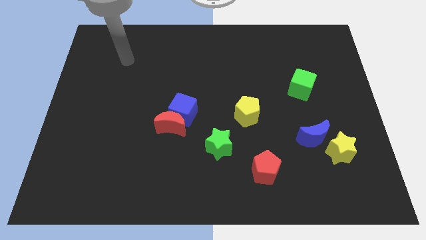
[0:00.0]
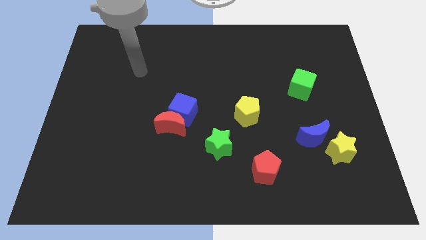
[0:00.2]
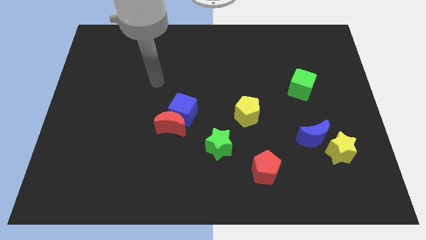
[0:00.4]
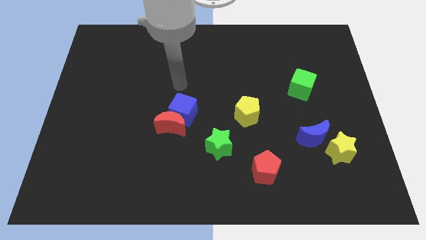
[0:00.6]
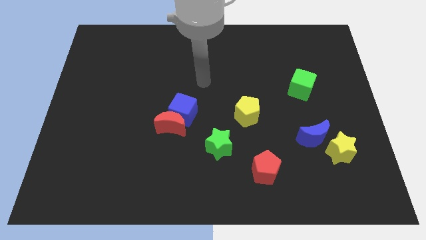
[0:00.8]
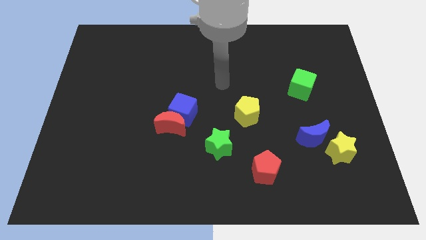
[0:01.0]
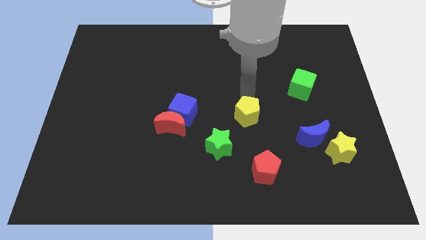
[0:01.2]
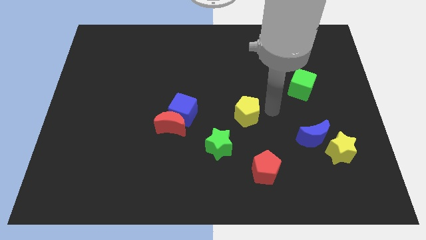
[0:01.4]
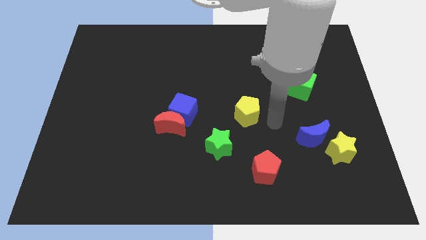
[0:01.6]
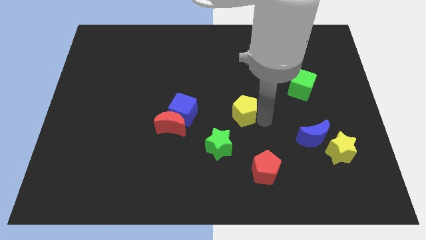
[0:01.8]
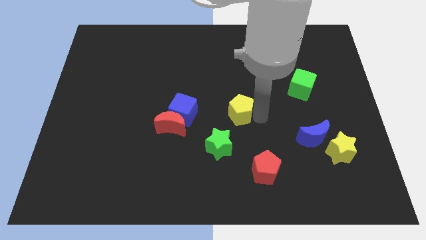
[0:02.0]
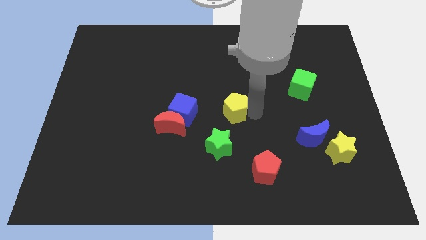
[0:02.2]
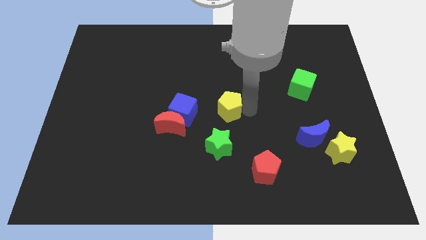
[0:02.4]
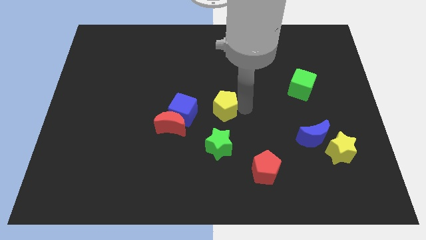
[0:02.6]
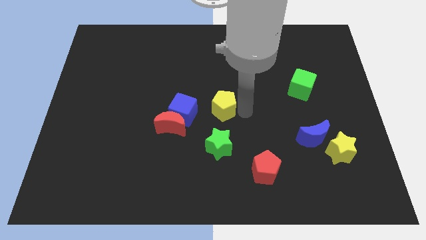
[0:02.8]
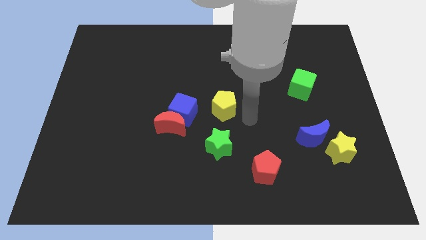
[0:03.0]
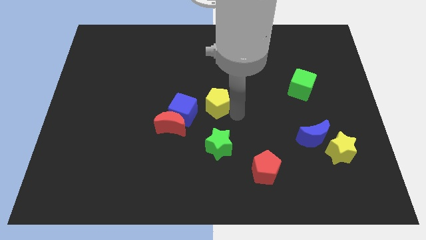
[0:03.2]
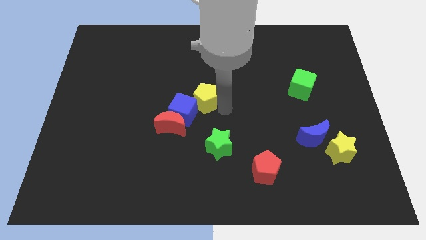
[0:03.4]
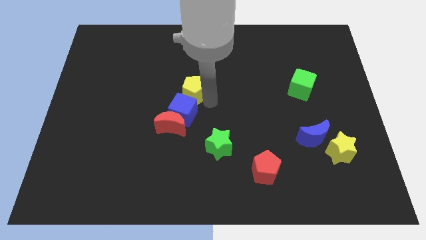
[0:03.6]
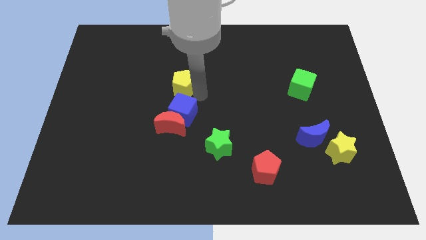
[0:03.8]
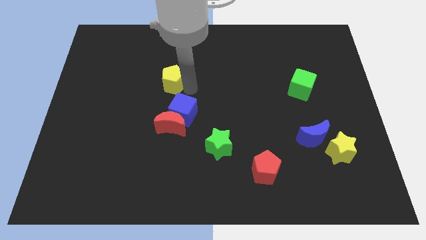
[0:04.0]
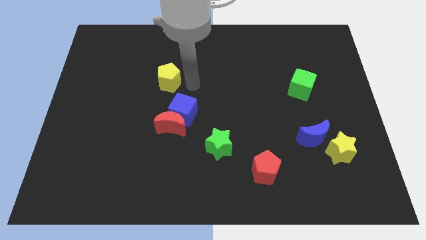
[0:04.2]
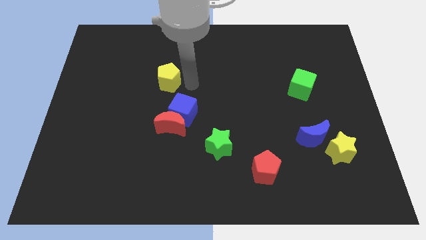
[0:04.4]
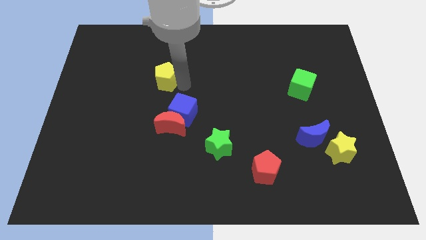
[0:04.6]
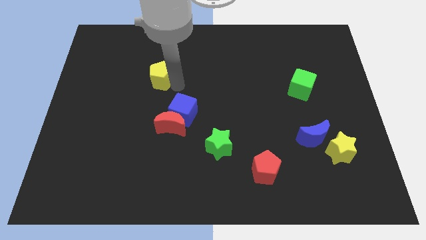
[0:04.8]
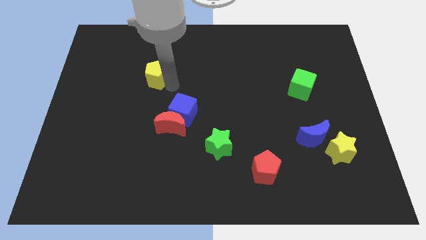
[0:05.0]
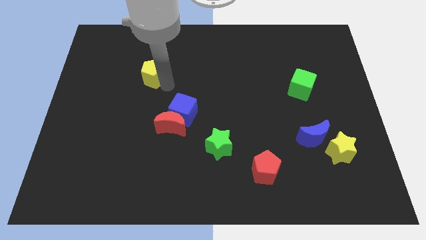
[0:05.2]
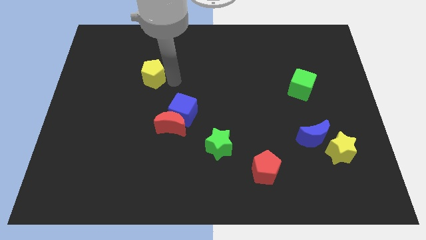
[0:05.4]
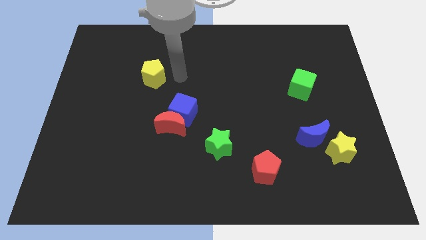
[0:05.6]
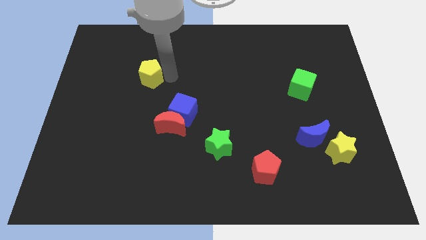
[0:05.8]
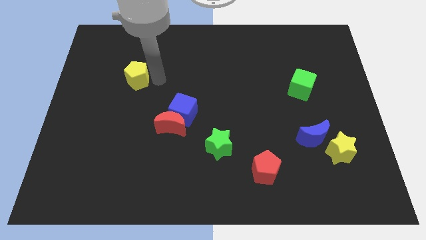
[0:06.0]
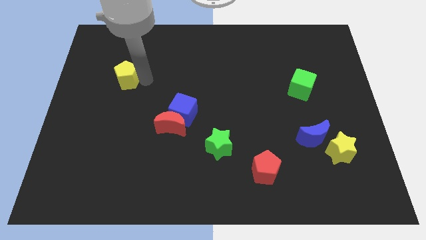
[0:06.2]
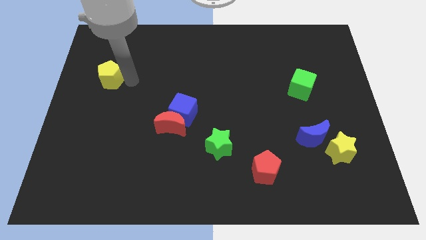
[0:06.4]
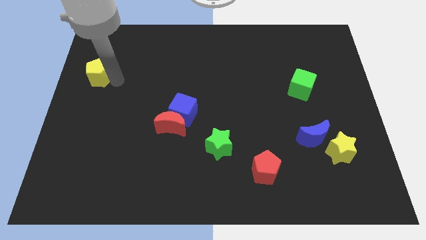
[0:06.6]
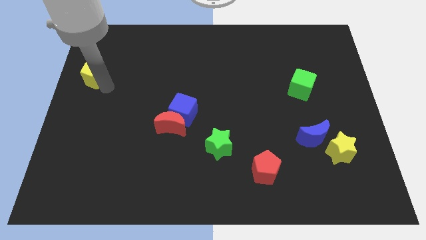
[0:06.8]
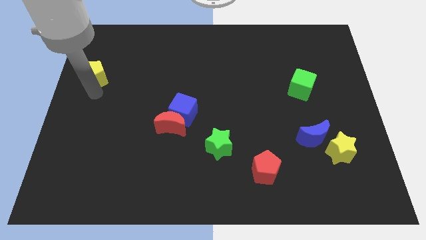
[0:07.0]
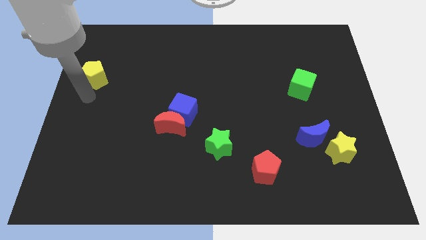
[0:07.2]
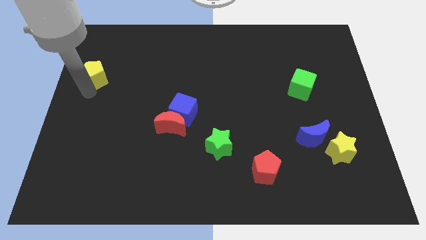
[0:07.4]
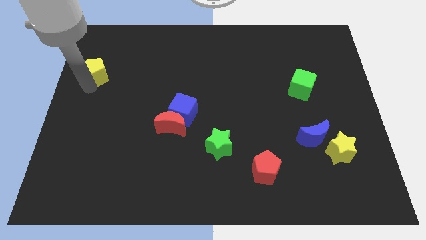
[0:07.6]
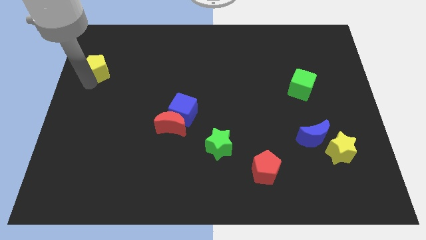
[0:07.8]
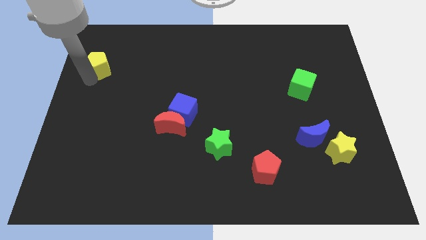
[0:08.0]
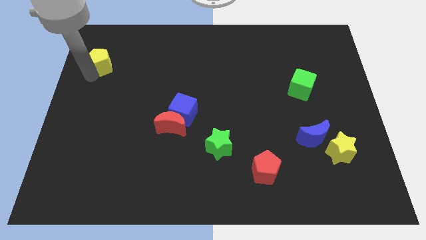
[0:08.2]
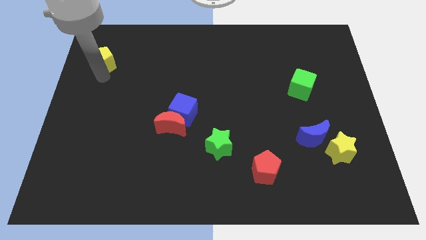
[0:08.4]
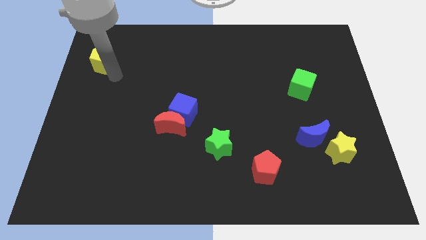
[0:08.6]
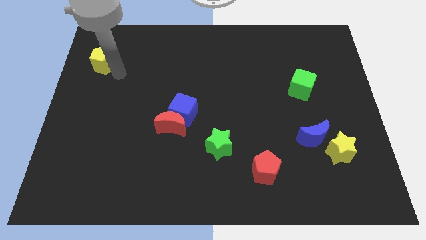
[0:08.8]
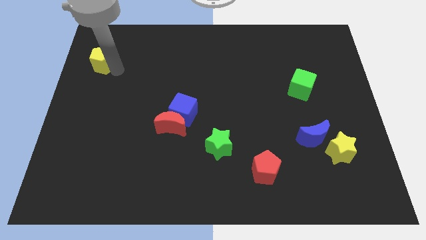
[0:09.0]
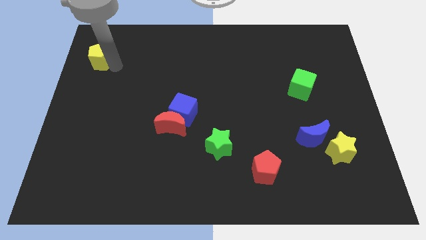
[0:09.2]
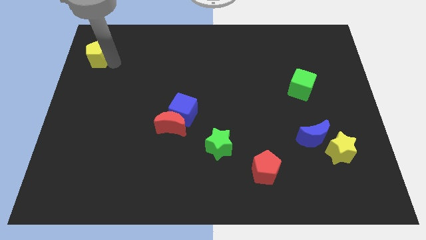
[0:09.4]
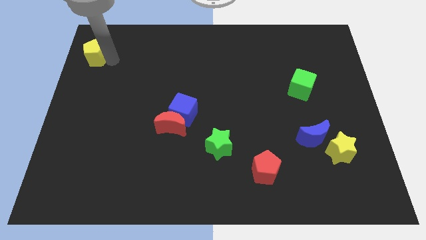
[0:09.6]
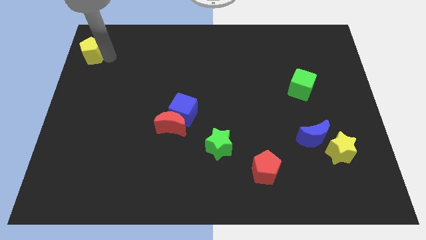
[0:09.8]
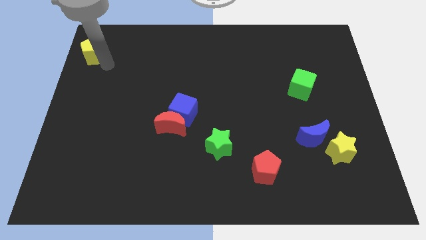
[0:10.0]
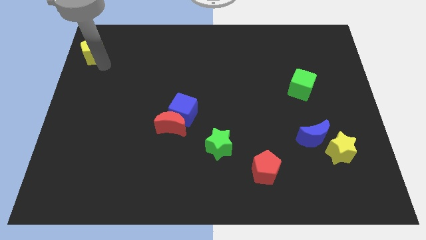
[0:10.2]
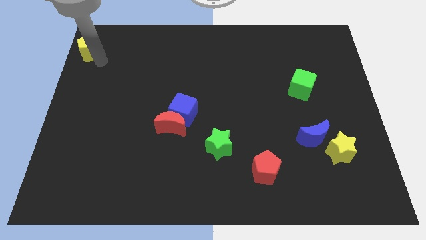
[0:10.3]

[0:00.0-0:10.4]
push the yellow pentagon to the upper left corner

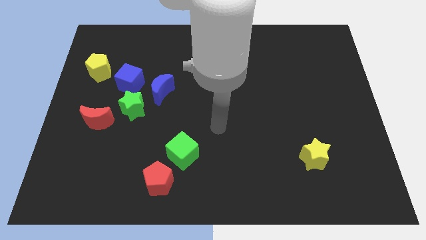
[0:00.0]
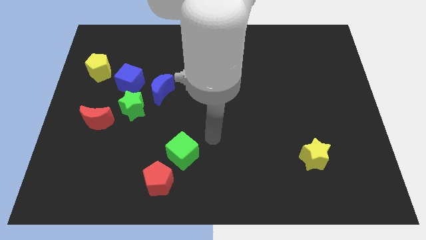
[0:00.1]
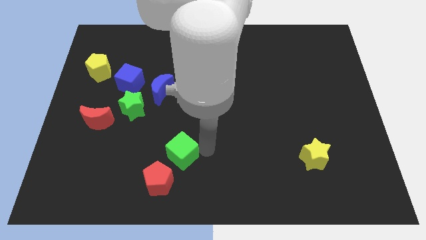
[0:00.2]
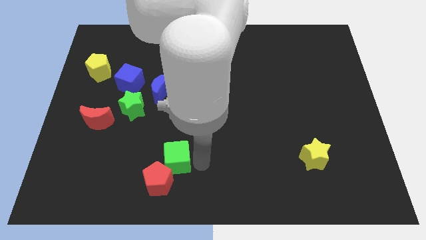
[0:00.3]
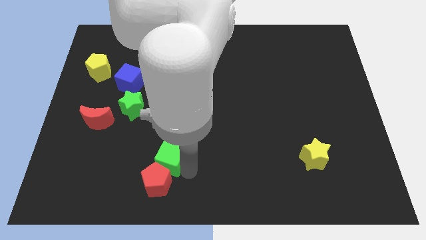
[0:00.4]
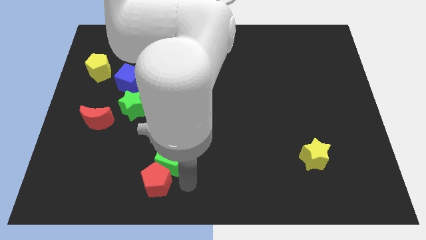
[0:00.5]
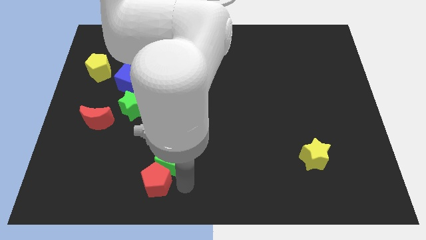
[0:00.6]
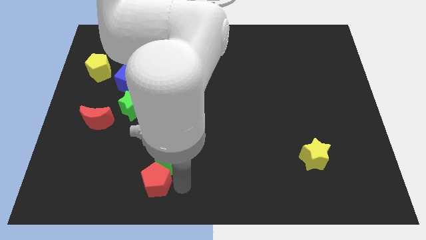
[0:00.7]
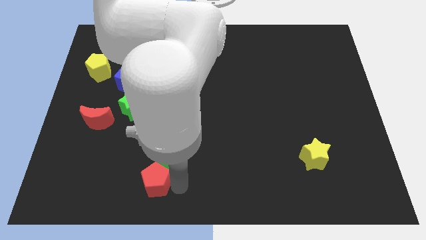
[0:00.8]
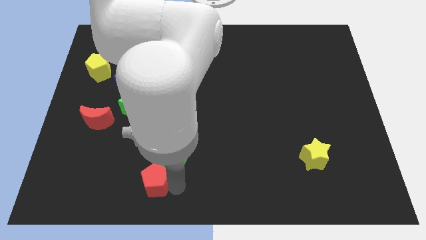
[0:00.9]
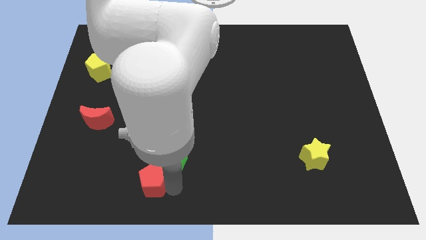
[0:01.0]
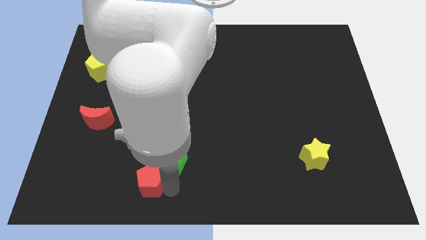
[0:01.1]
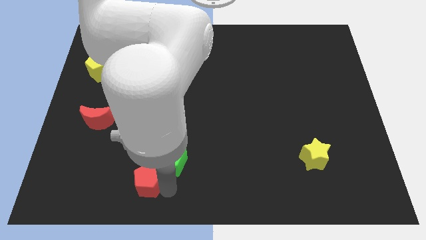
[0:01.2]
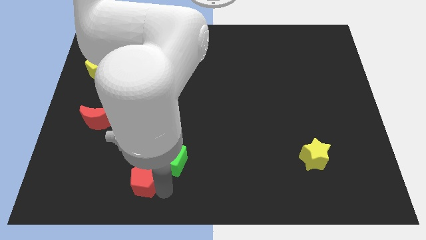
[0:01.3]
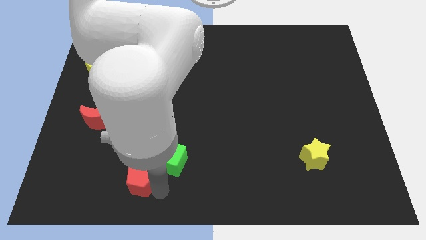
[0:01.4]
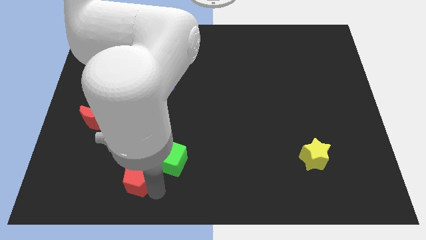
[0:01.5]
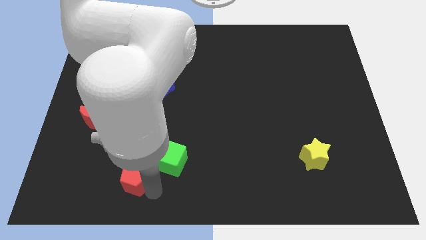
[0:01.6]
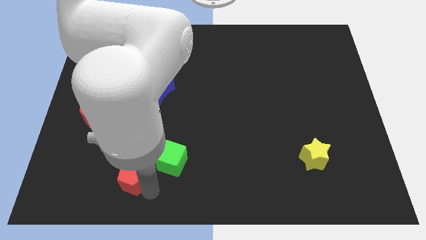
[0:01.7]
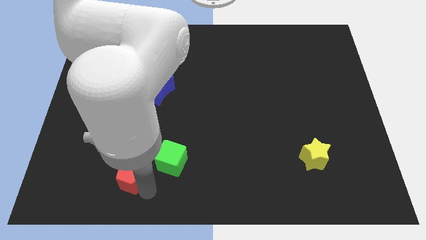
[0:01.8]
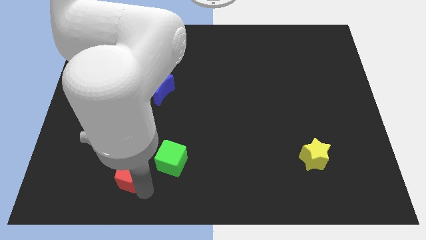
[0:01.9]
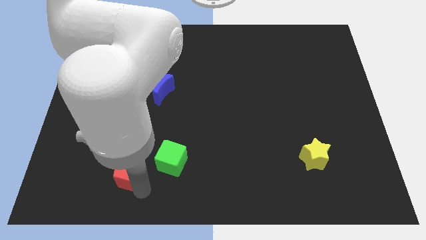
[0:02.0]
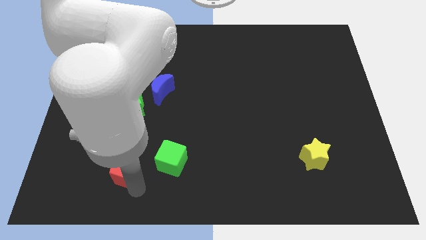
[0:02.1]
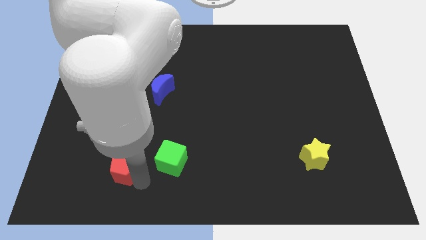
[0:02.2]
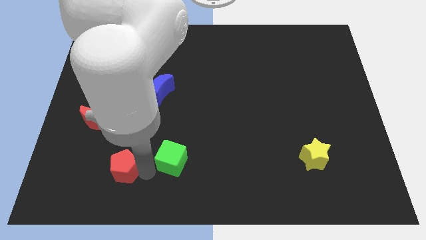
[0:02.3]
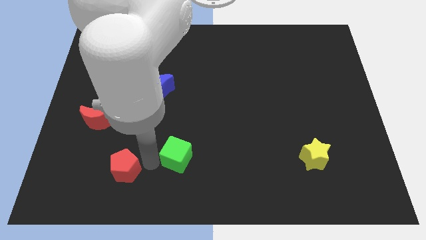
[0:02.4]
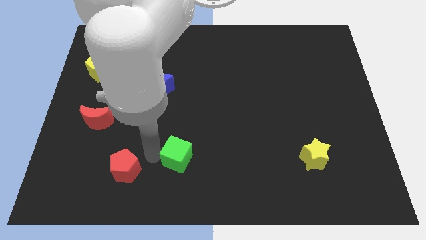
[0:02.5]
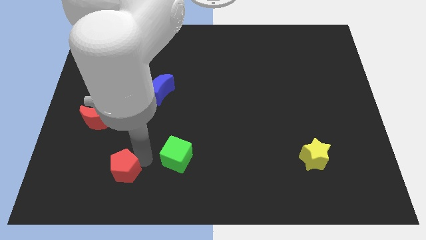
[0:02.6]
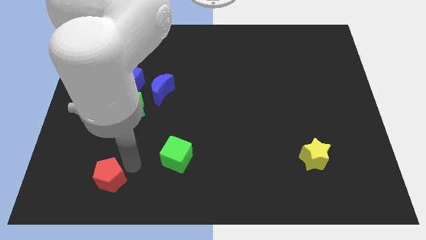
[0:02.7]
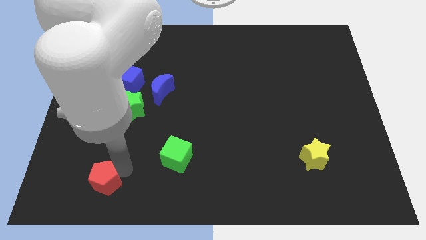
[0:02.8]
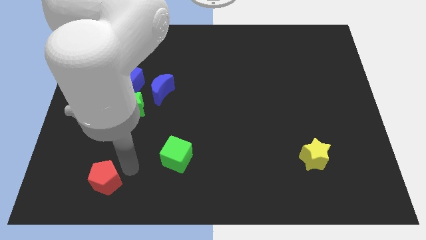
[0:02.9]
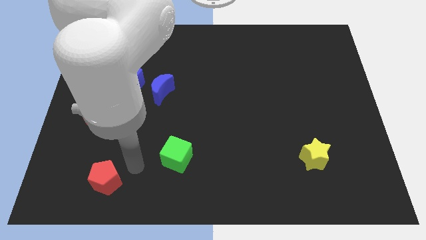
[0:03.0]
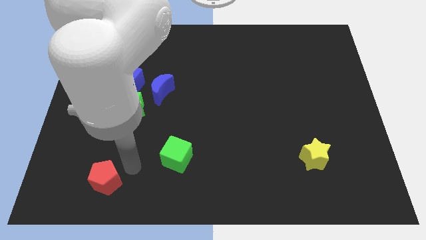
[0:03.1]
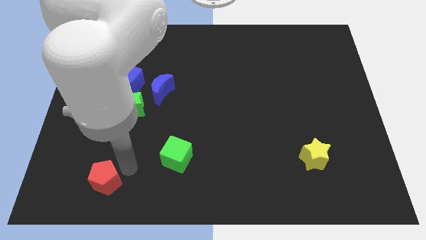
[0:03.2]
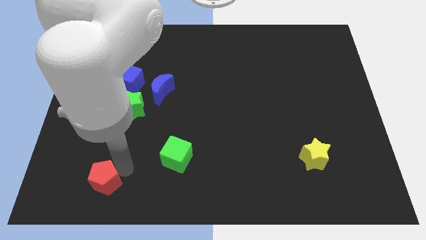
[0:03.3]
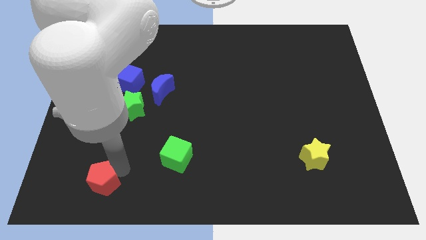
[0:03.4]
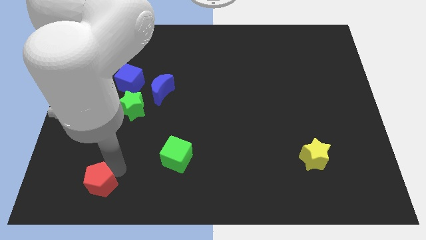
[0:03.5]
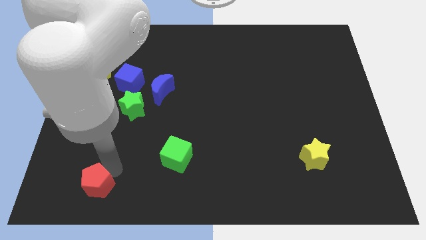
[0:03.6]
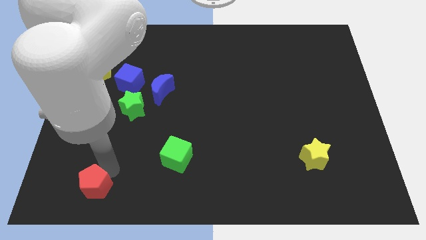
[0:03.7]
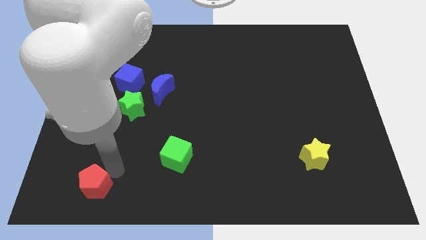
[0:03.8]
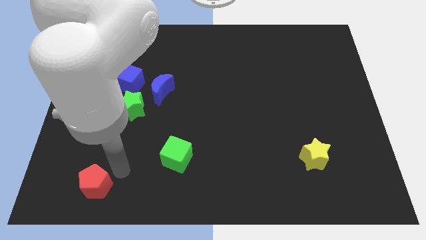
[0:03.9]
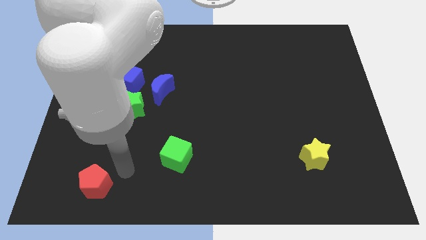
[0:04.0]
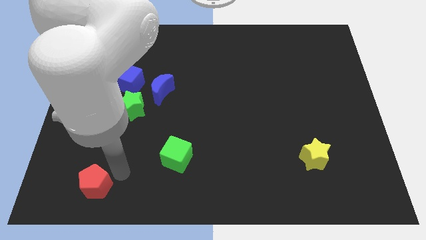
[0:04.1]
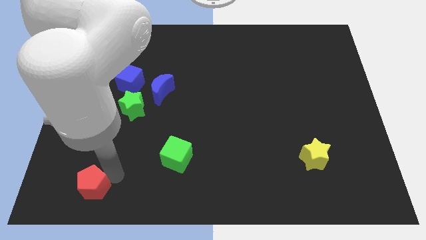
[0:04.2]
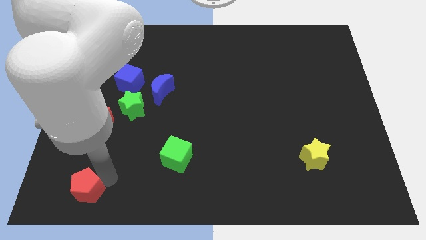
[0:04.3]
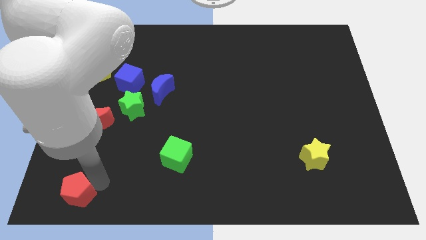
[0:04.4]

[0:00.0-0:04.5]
move the red pentagon to the bottom left of the board
